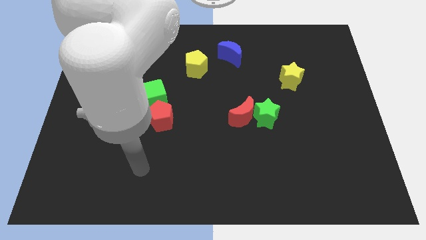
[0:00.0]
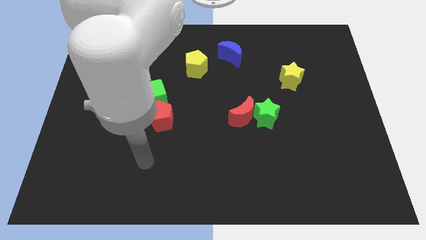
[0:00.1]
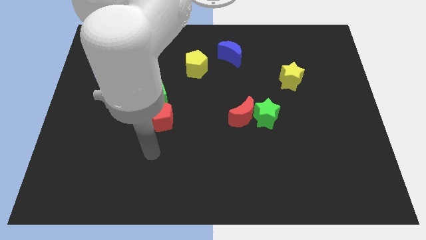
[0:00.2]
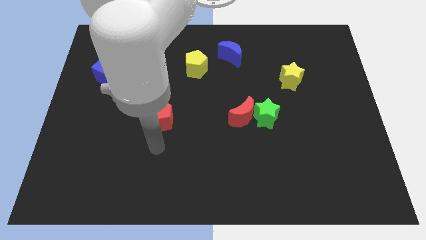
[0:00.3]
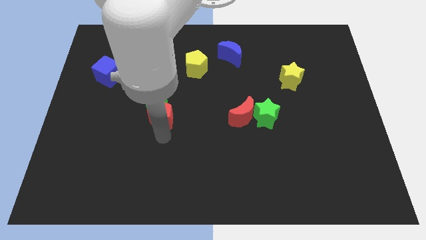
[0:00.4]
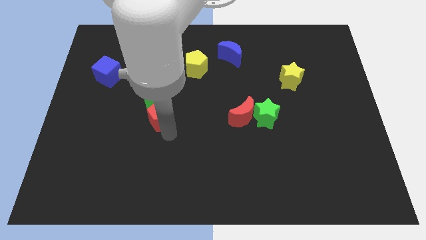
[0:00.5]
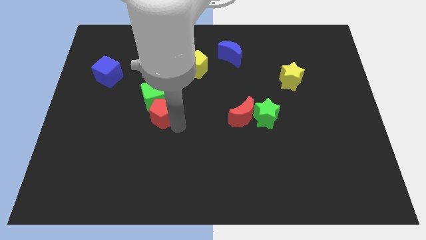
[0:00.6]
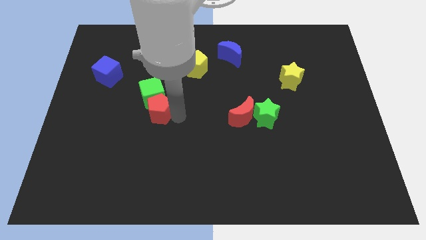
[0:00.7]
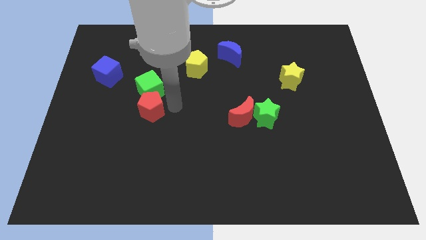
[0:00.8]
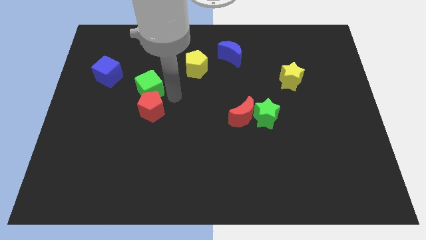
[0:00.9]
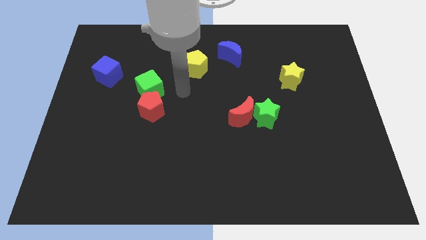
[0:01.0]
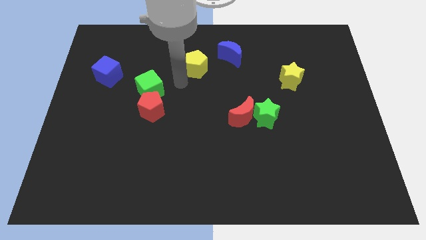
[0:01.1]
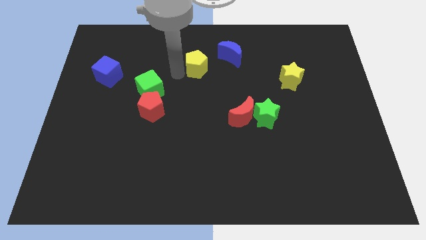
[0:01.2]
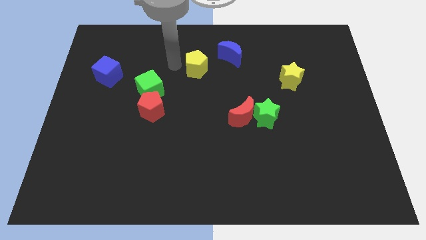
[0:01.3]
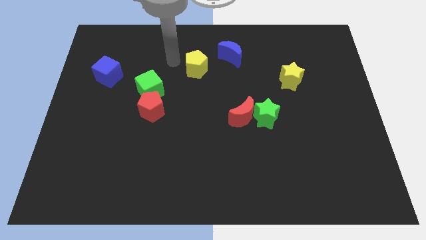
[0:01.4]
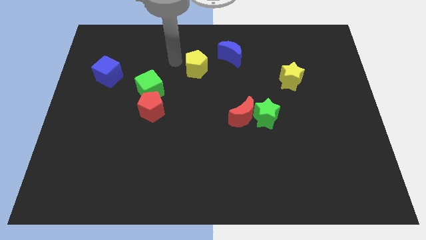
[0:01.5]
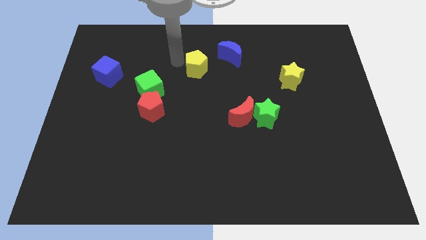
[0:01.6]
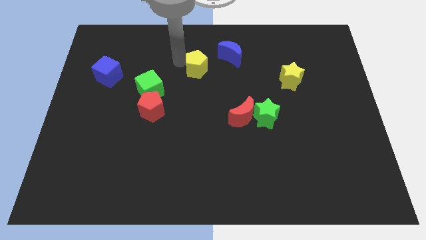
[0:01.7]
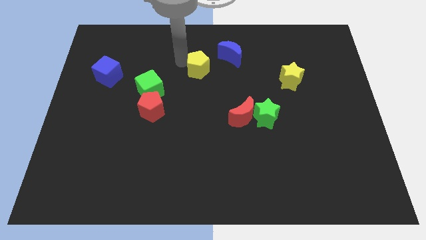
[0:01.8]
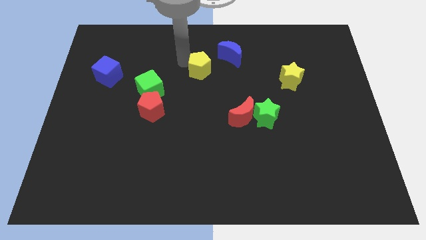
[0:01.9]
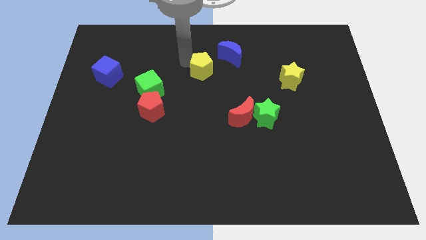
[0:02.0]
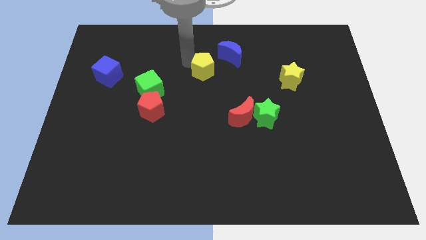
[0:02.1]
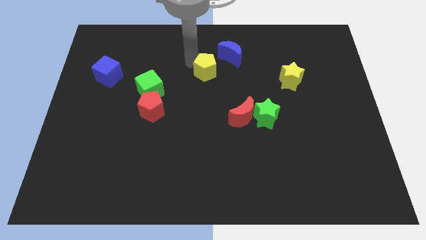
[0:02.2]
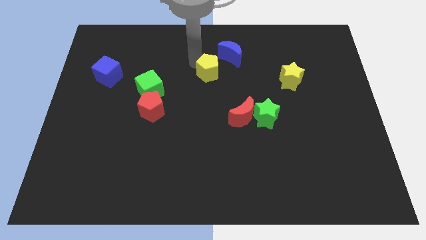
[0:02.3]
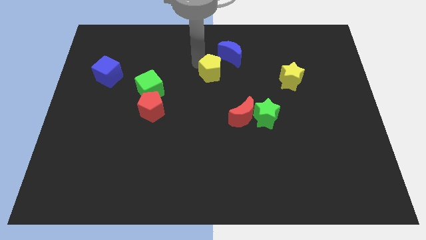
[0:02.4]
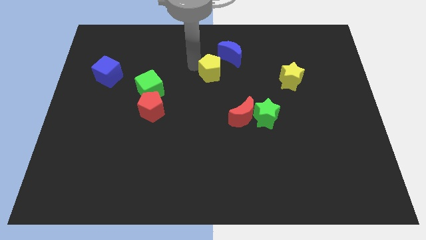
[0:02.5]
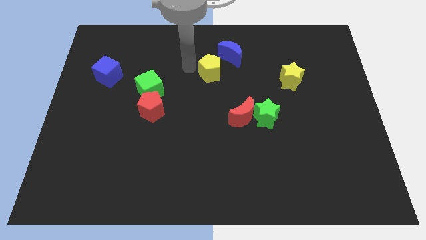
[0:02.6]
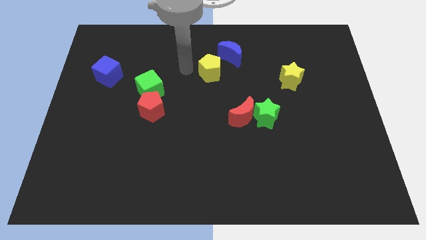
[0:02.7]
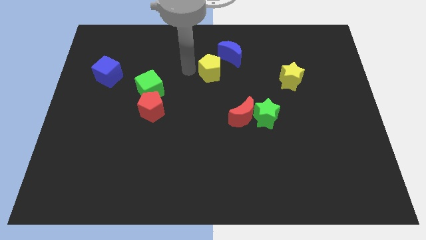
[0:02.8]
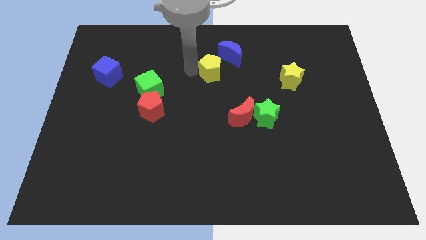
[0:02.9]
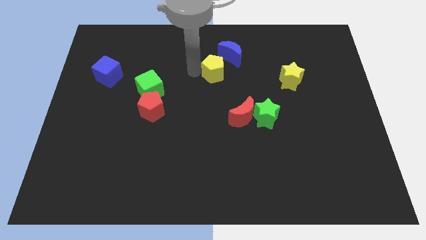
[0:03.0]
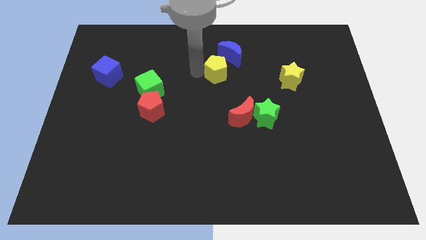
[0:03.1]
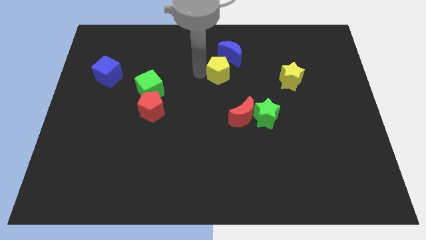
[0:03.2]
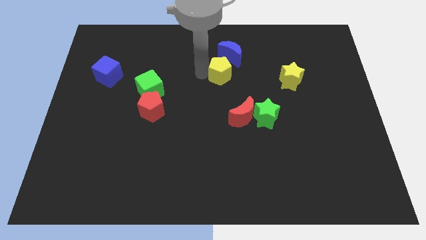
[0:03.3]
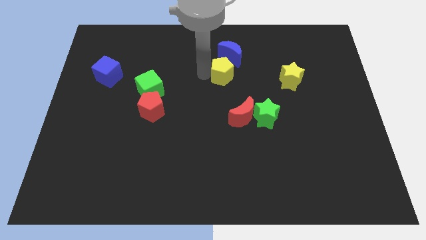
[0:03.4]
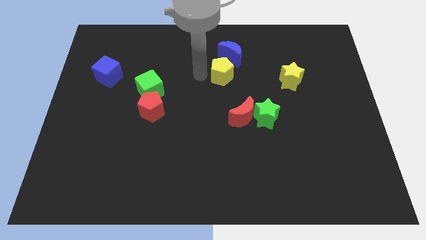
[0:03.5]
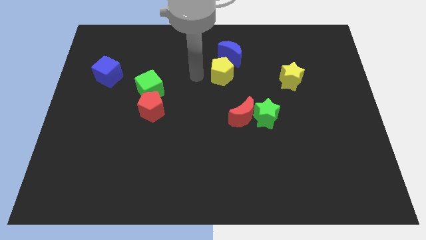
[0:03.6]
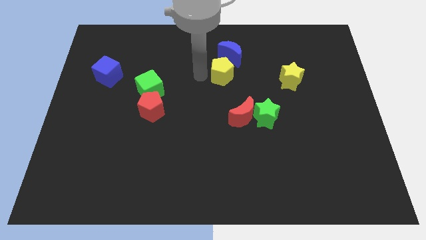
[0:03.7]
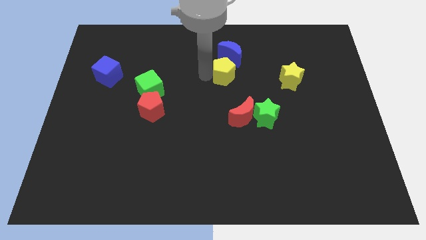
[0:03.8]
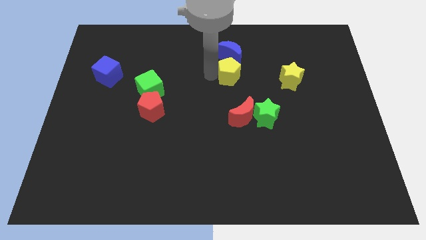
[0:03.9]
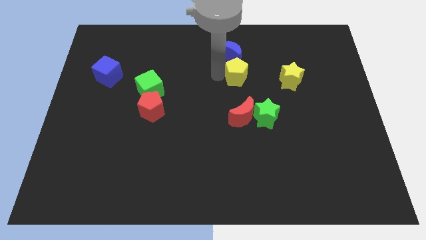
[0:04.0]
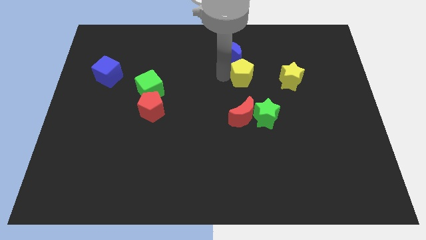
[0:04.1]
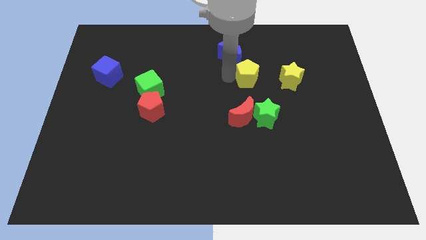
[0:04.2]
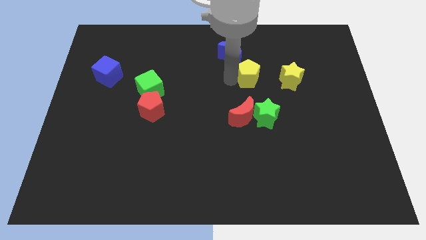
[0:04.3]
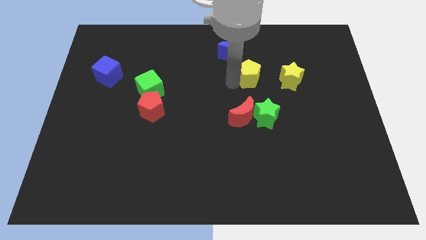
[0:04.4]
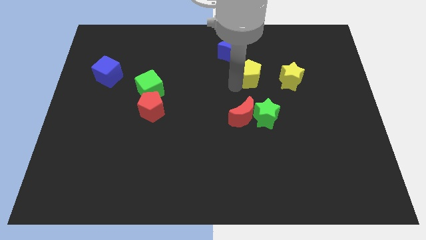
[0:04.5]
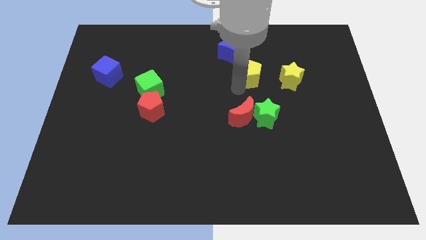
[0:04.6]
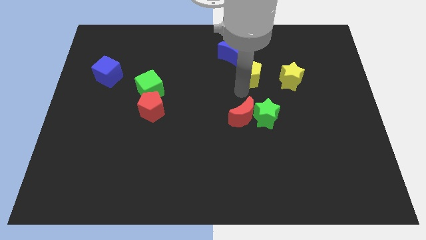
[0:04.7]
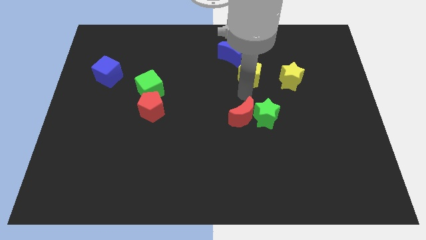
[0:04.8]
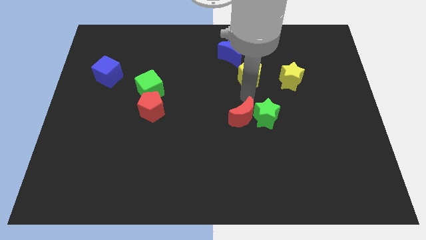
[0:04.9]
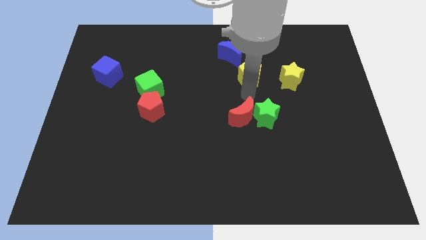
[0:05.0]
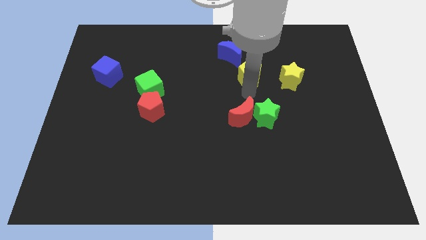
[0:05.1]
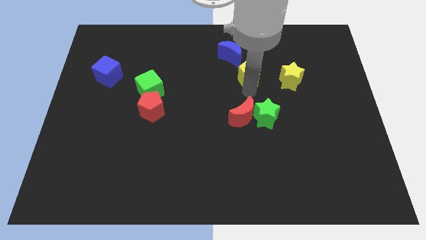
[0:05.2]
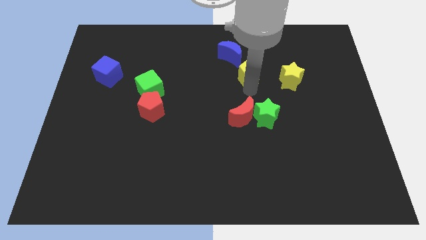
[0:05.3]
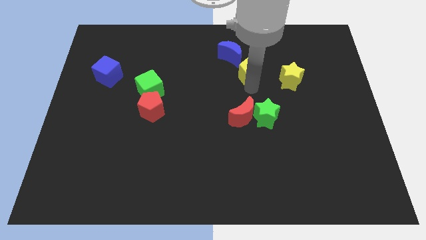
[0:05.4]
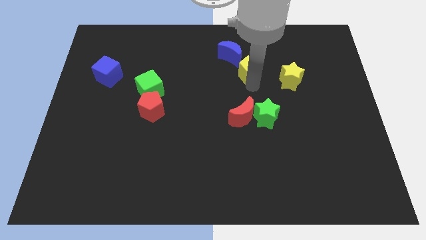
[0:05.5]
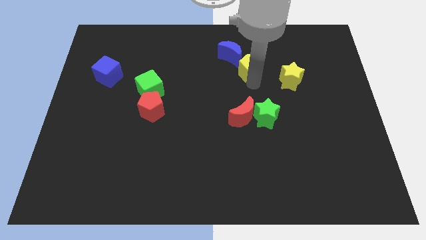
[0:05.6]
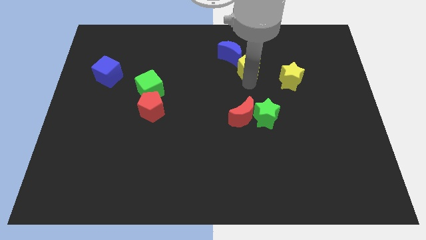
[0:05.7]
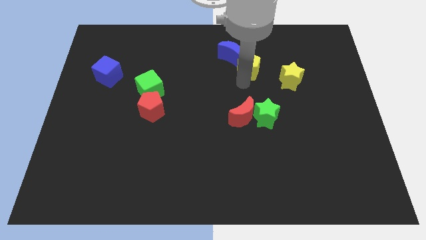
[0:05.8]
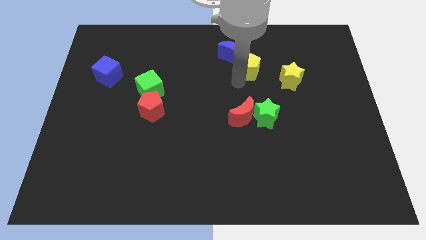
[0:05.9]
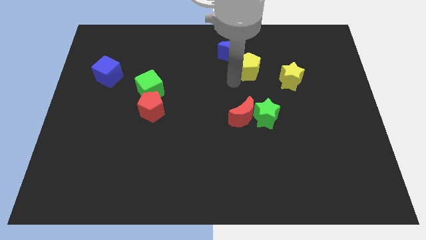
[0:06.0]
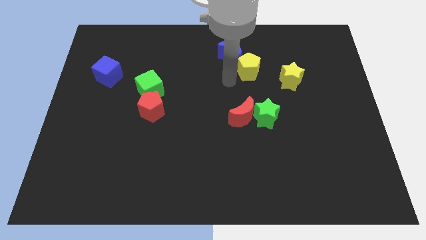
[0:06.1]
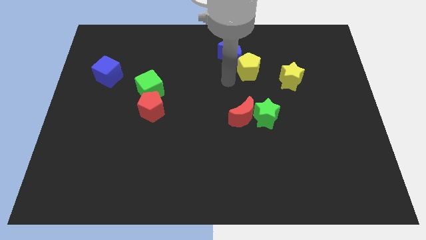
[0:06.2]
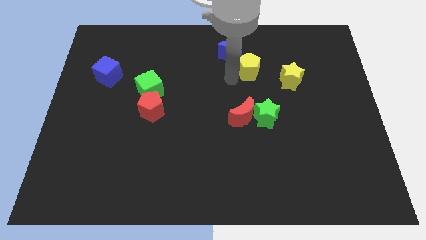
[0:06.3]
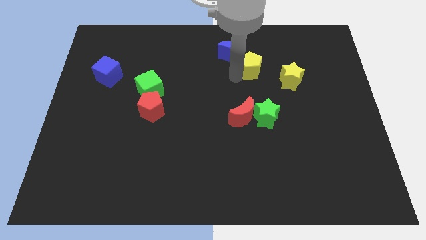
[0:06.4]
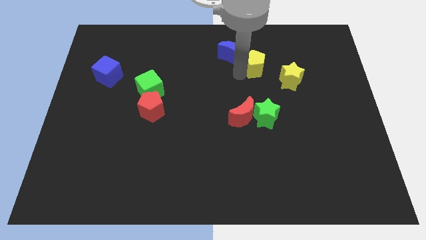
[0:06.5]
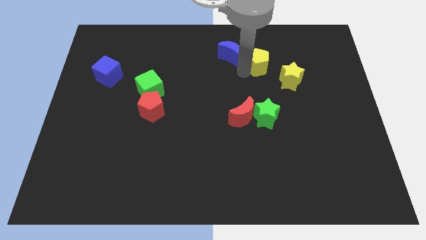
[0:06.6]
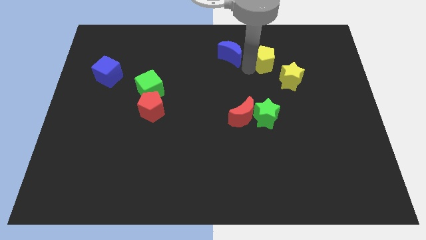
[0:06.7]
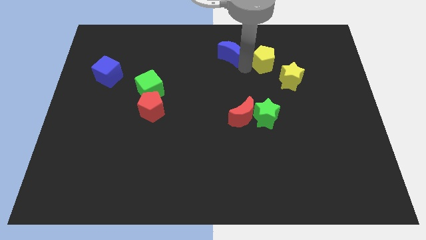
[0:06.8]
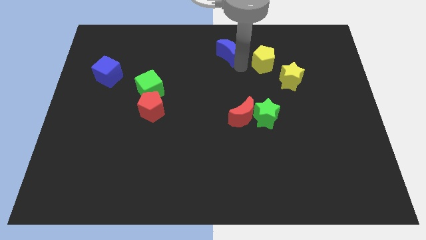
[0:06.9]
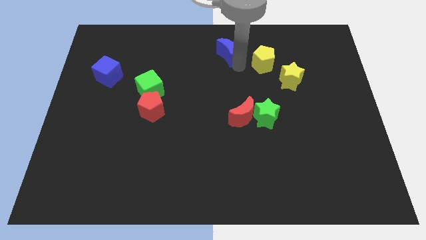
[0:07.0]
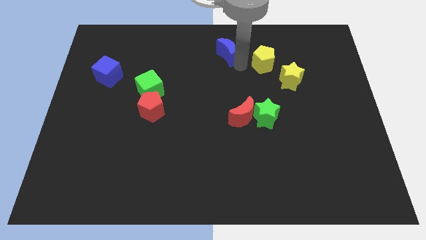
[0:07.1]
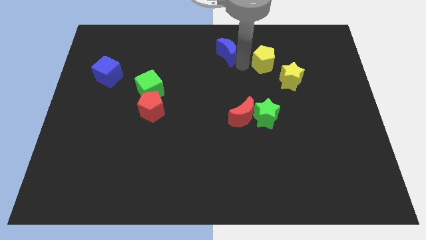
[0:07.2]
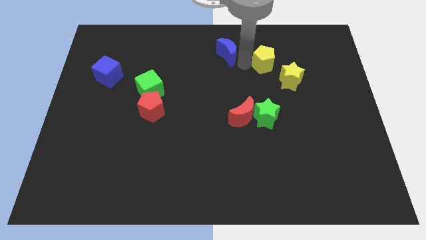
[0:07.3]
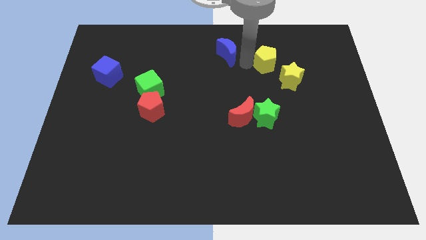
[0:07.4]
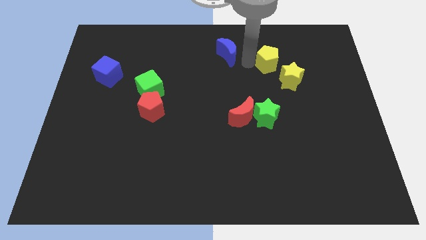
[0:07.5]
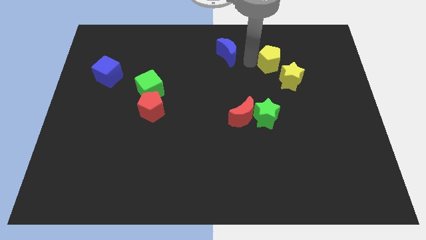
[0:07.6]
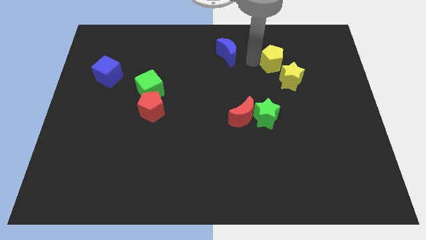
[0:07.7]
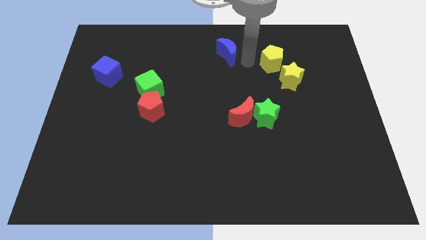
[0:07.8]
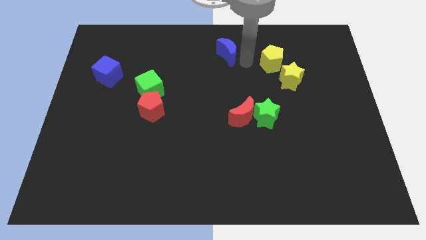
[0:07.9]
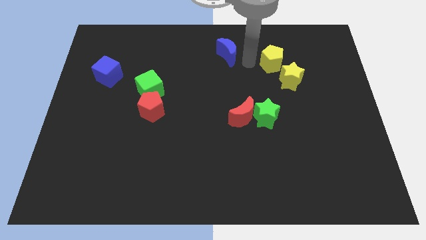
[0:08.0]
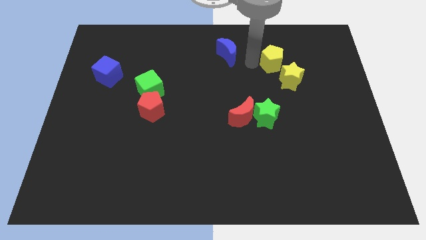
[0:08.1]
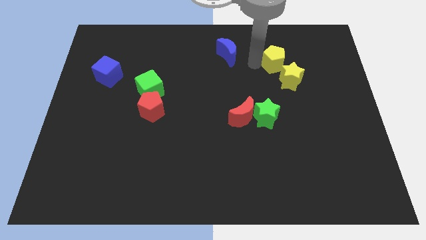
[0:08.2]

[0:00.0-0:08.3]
move the yellow pentagon right
